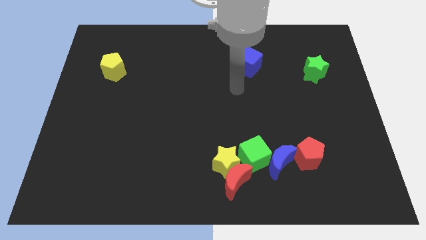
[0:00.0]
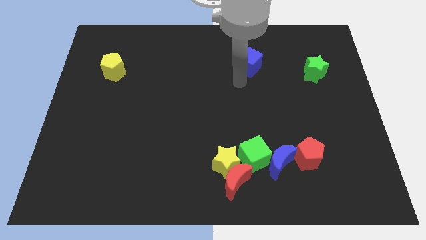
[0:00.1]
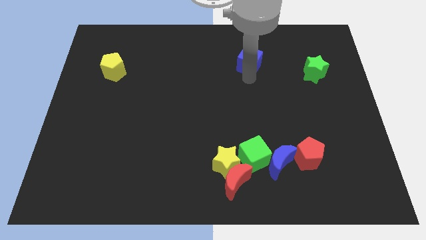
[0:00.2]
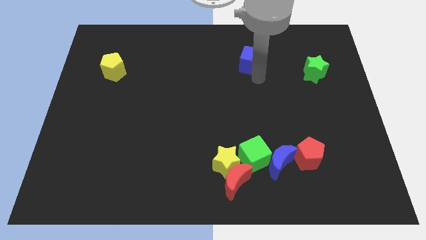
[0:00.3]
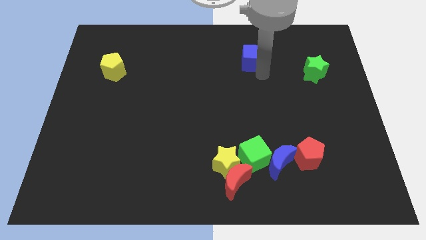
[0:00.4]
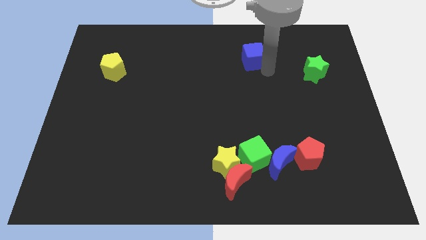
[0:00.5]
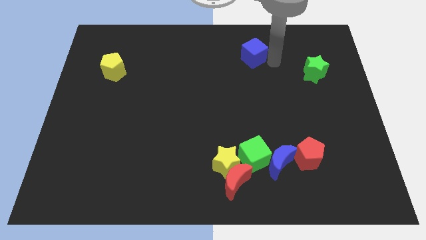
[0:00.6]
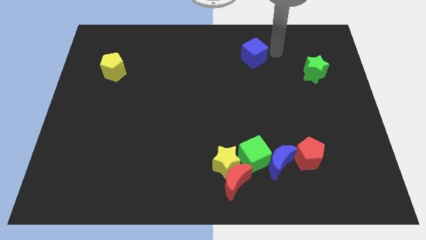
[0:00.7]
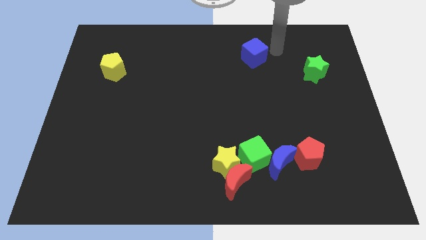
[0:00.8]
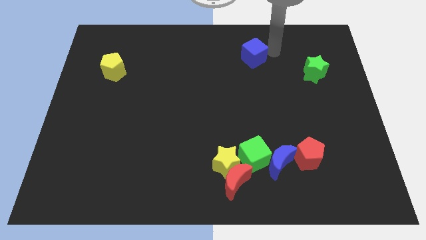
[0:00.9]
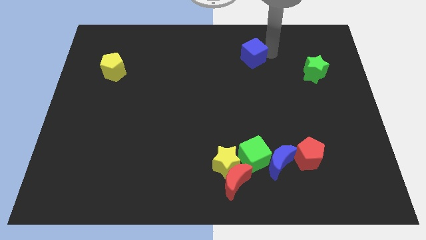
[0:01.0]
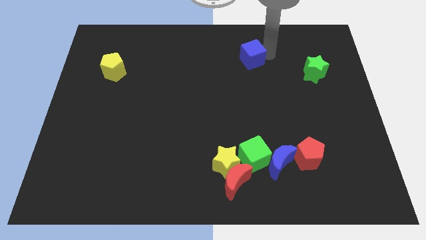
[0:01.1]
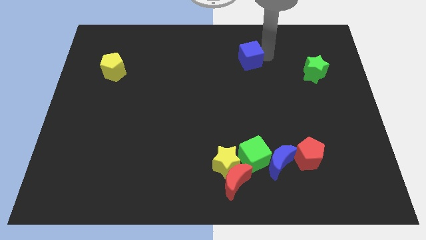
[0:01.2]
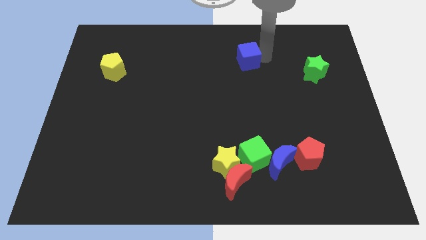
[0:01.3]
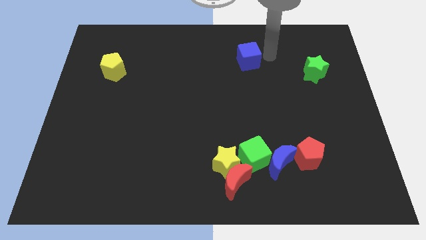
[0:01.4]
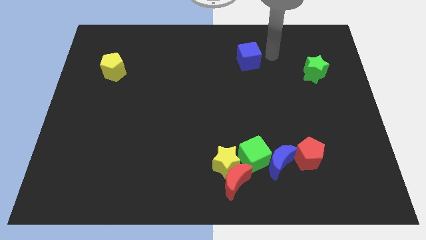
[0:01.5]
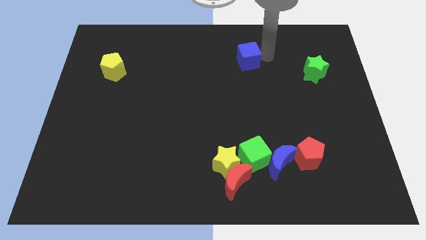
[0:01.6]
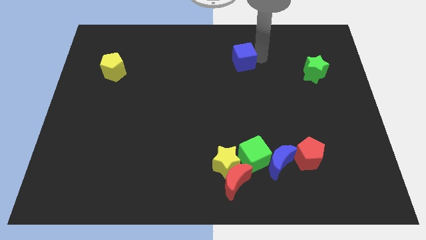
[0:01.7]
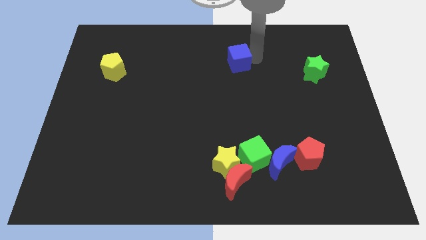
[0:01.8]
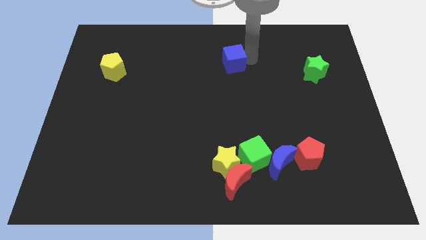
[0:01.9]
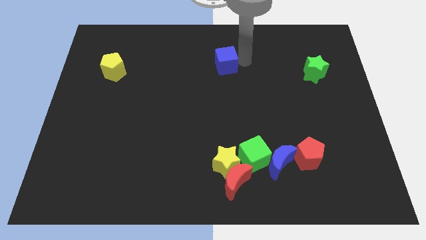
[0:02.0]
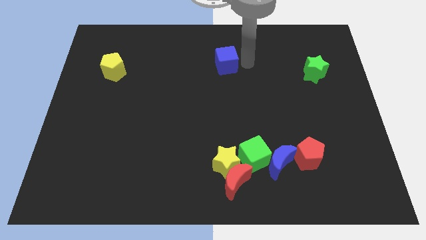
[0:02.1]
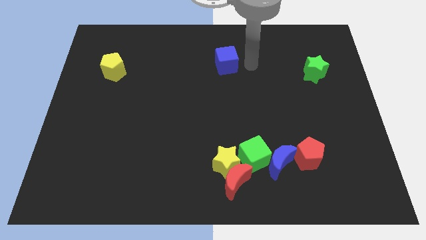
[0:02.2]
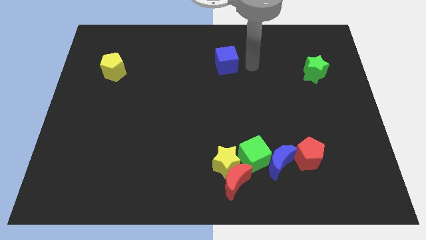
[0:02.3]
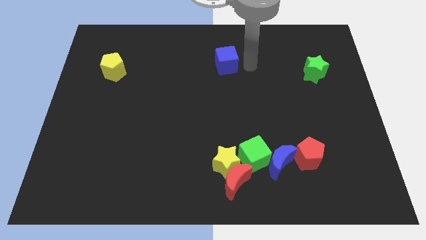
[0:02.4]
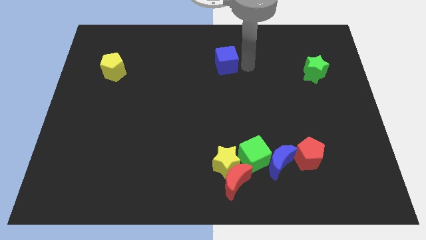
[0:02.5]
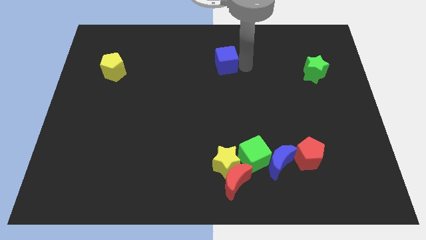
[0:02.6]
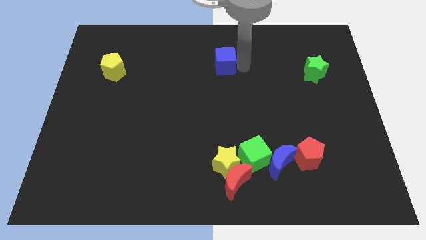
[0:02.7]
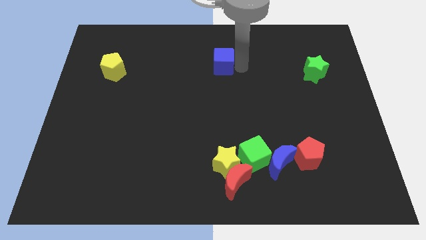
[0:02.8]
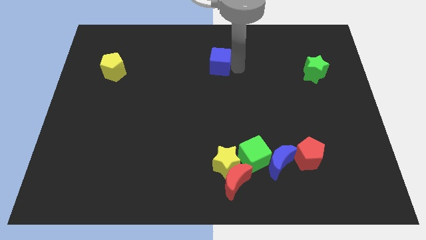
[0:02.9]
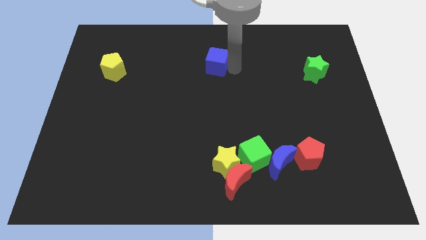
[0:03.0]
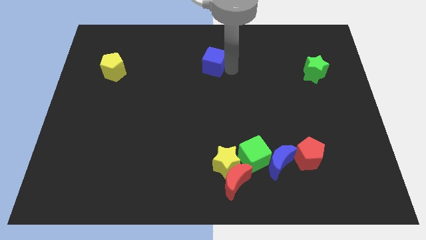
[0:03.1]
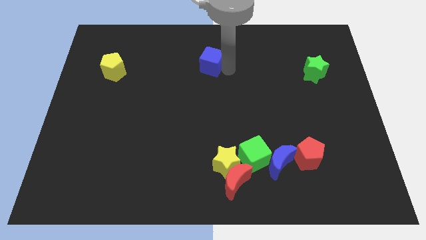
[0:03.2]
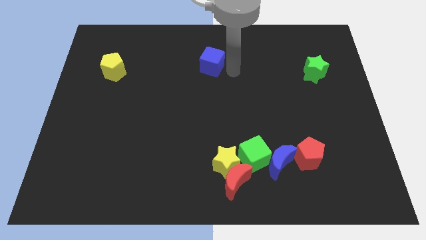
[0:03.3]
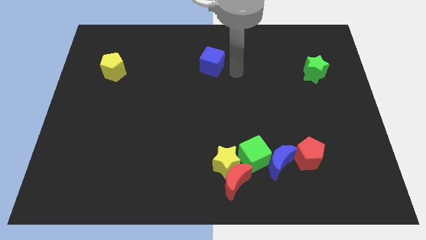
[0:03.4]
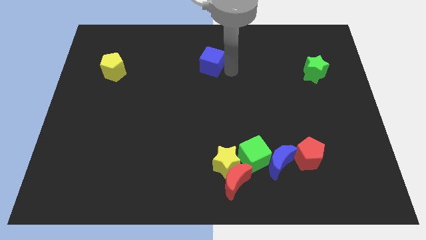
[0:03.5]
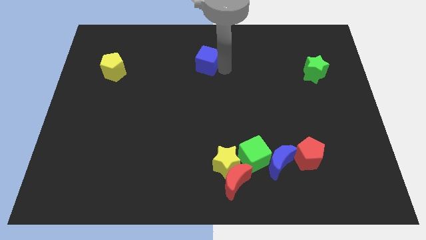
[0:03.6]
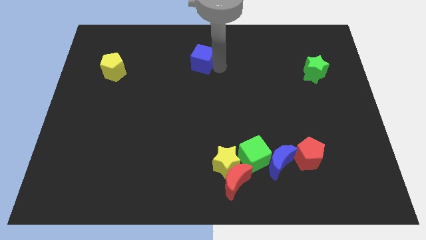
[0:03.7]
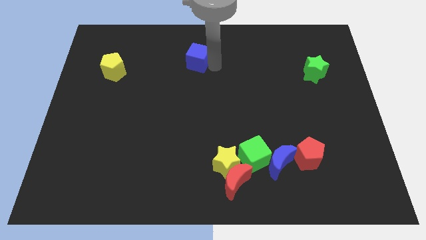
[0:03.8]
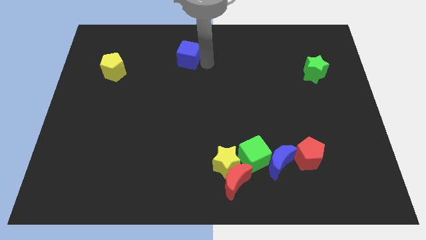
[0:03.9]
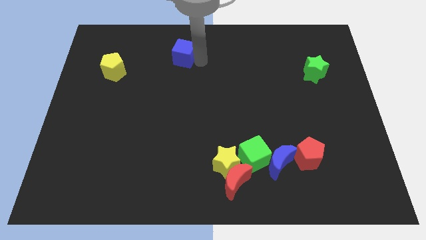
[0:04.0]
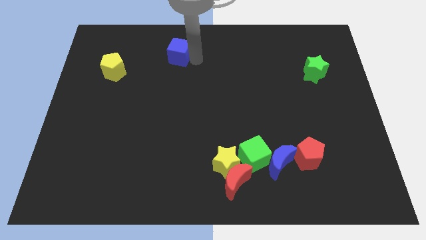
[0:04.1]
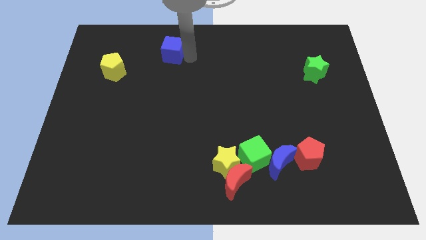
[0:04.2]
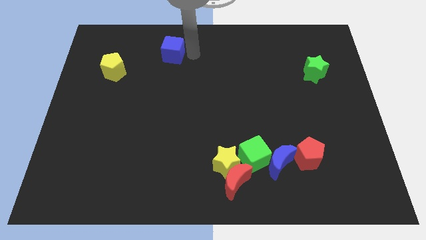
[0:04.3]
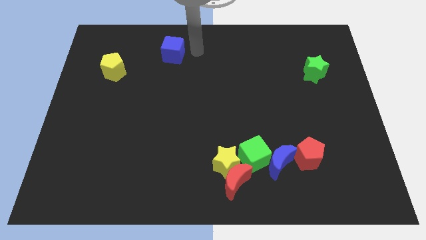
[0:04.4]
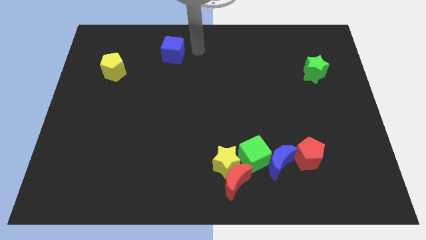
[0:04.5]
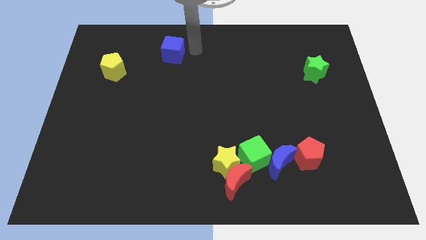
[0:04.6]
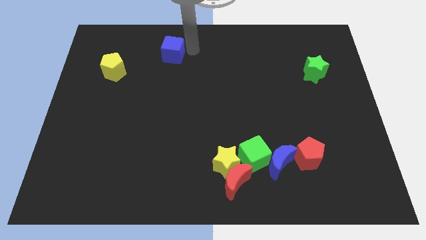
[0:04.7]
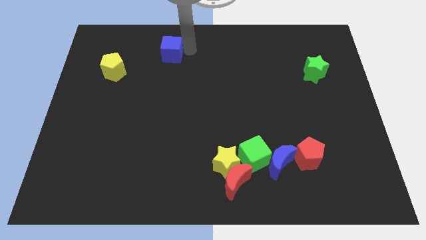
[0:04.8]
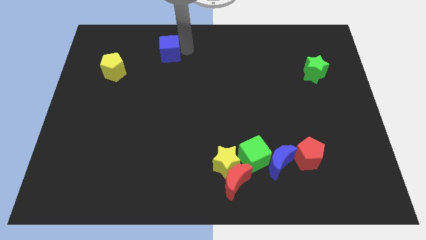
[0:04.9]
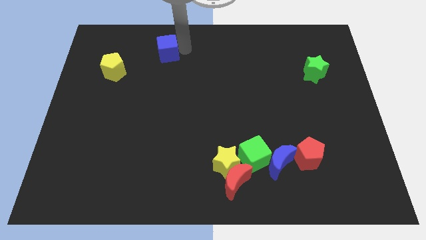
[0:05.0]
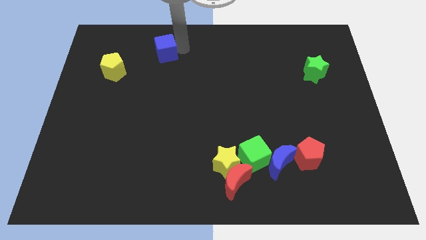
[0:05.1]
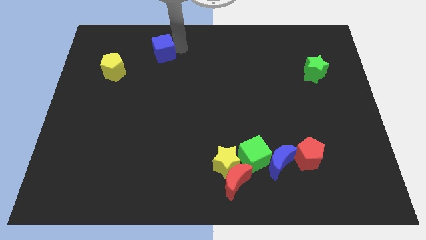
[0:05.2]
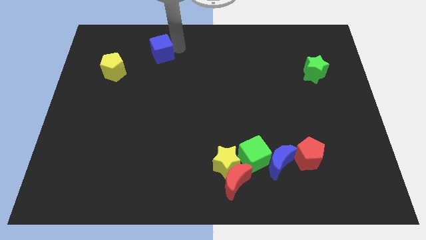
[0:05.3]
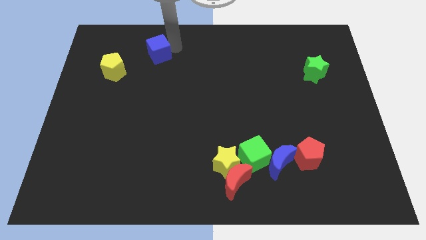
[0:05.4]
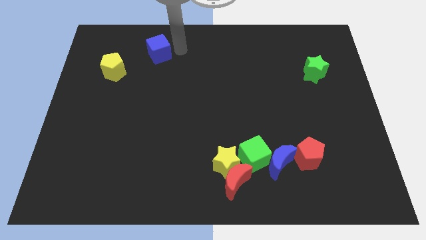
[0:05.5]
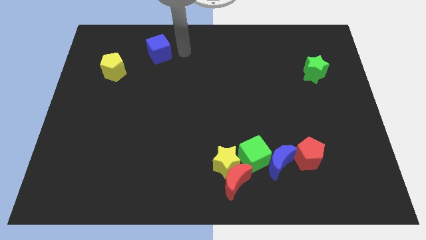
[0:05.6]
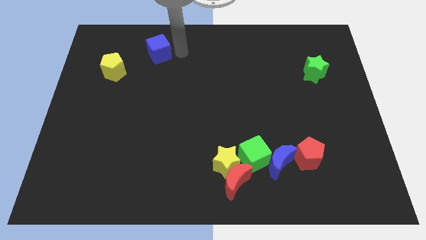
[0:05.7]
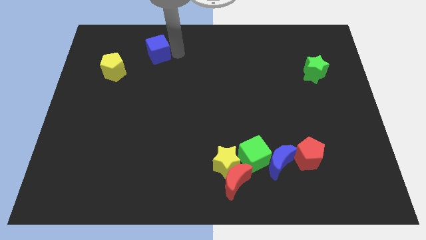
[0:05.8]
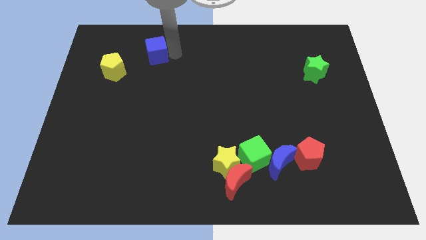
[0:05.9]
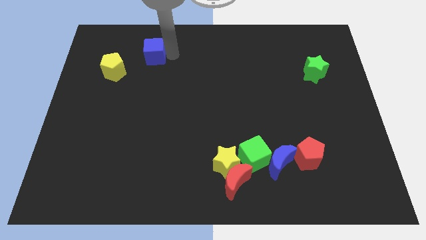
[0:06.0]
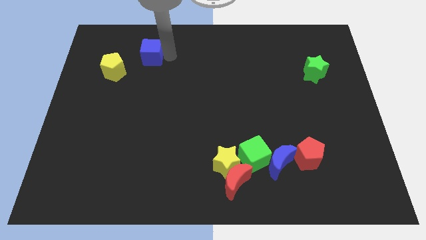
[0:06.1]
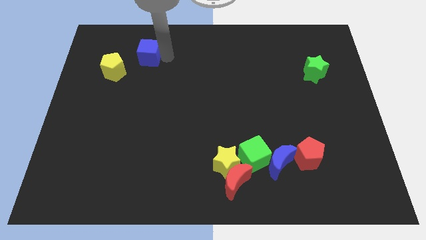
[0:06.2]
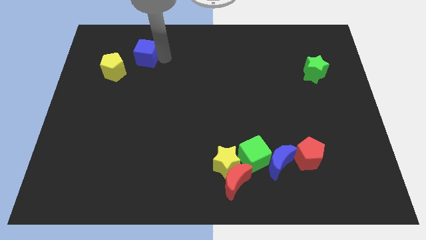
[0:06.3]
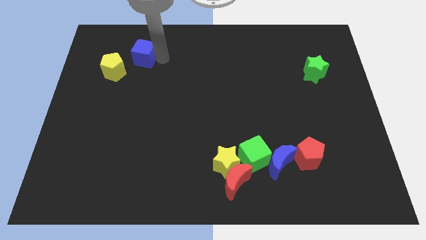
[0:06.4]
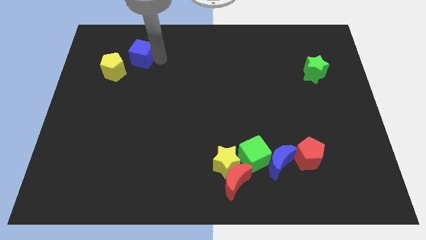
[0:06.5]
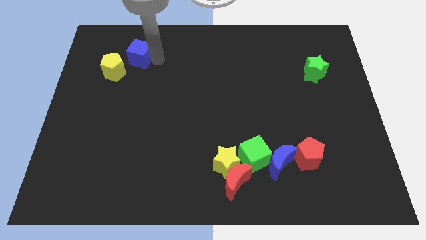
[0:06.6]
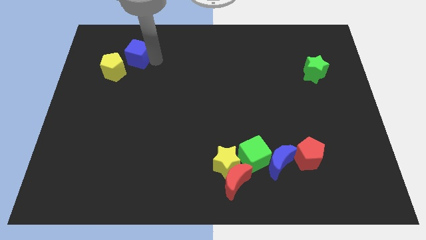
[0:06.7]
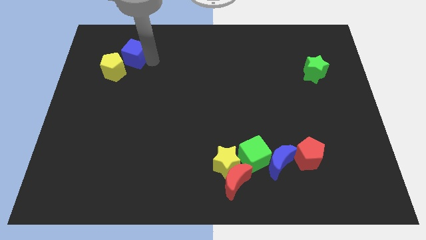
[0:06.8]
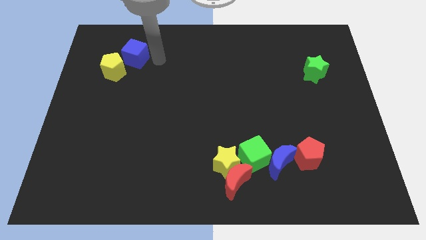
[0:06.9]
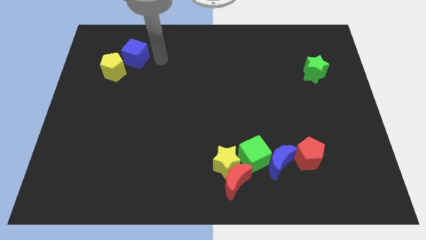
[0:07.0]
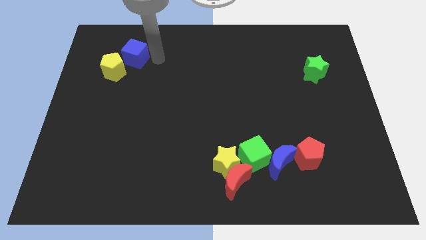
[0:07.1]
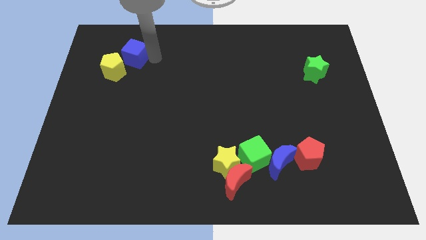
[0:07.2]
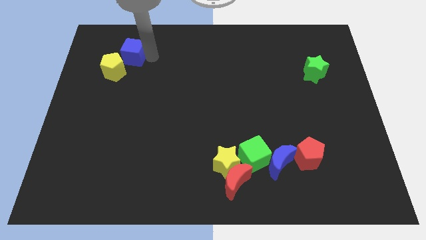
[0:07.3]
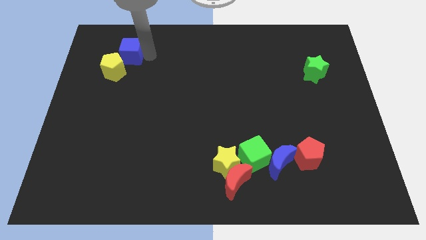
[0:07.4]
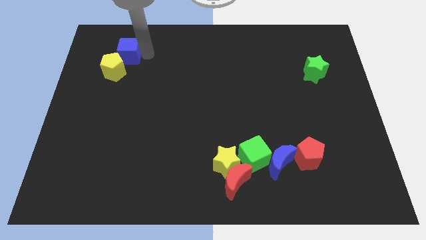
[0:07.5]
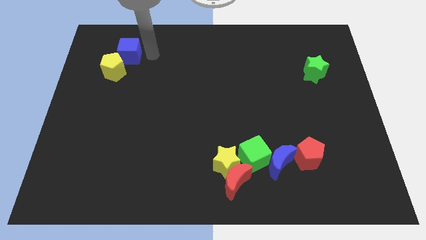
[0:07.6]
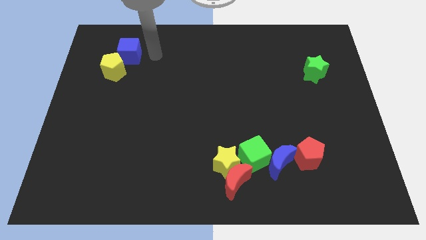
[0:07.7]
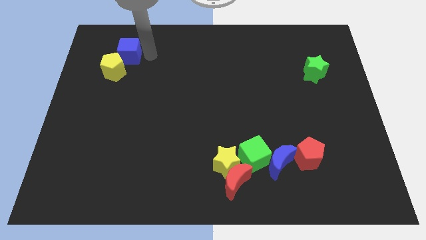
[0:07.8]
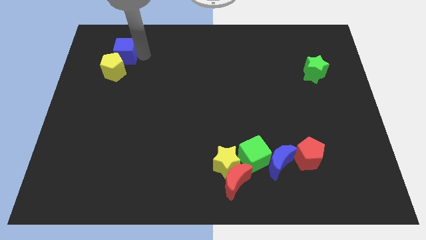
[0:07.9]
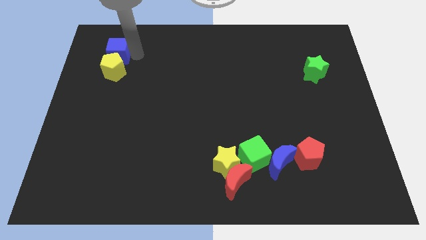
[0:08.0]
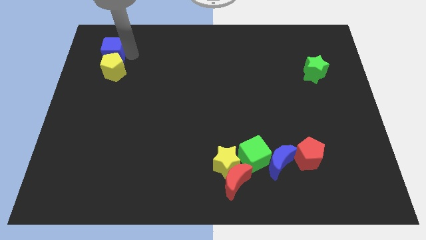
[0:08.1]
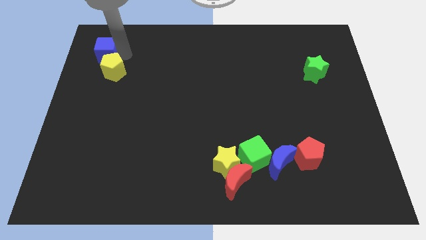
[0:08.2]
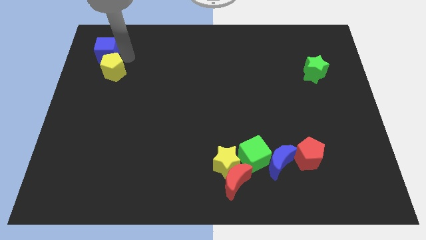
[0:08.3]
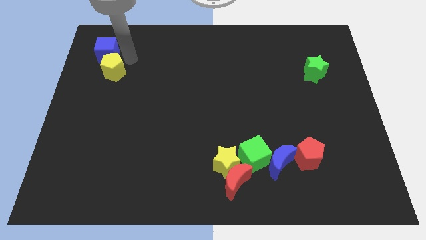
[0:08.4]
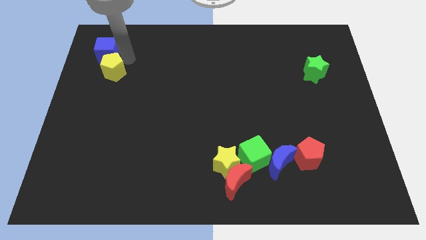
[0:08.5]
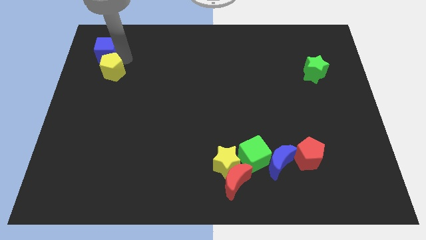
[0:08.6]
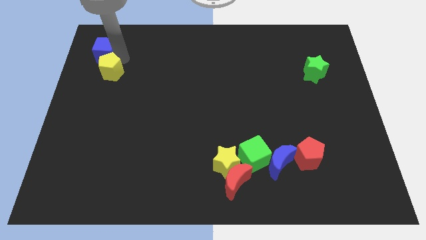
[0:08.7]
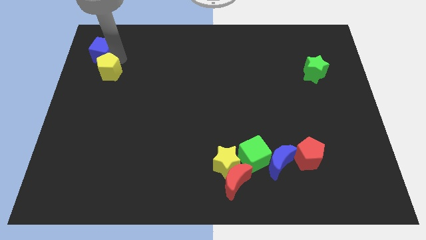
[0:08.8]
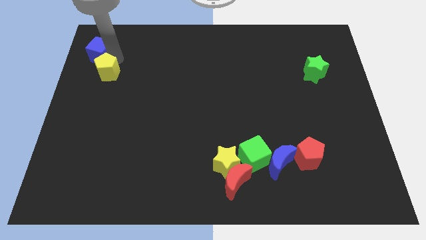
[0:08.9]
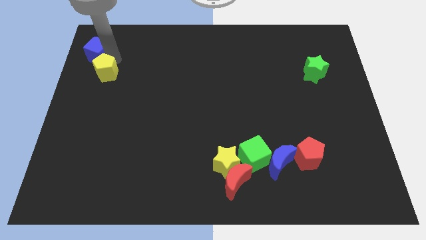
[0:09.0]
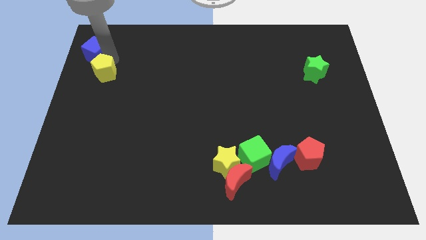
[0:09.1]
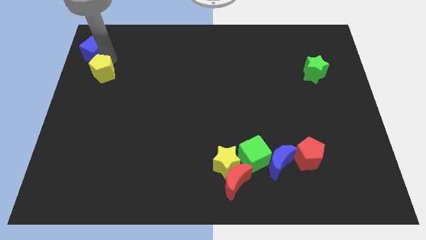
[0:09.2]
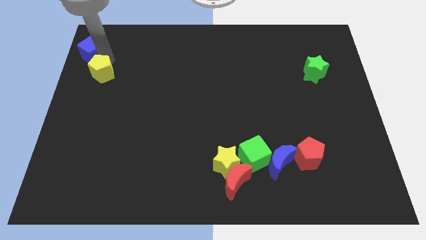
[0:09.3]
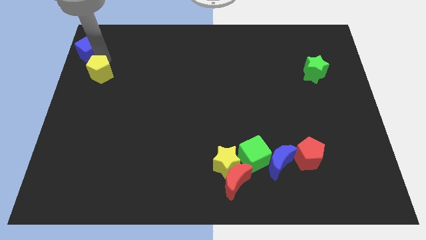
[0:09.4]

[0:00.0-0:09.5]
put the blue cube to the top left corner
